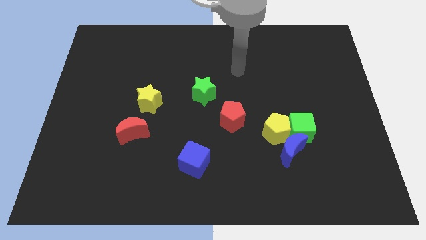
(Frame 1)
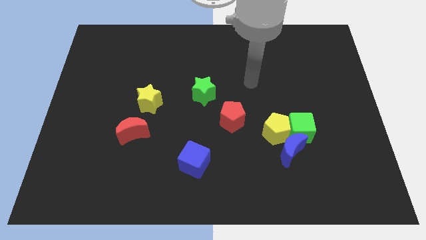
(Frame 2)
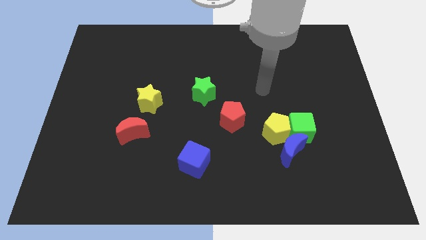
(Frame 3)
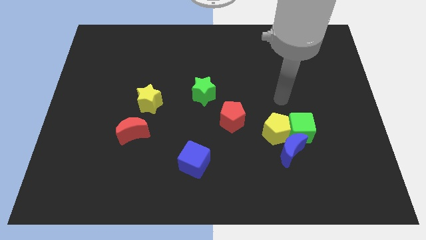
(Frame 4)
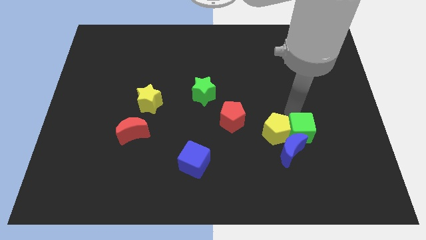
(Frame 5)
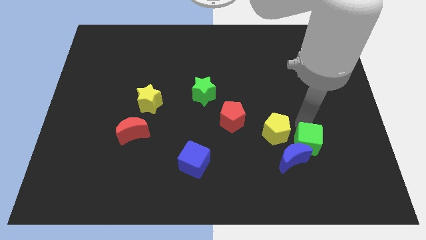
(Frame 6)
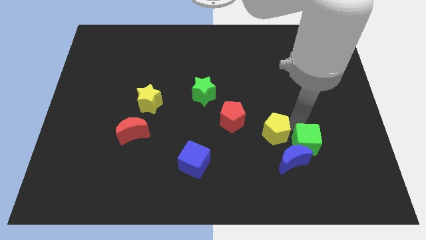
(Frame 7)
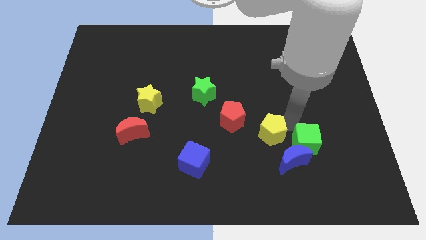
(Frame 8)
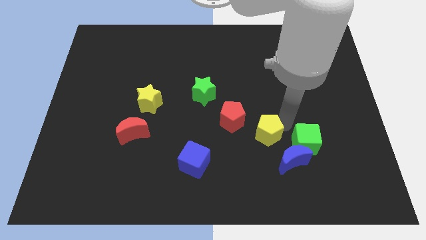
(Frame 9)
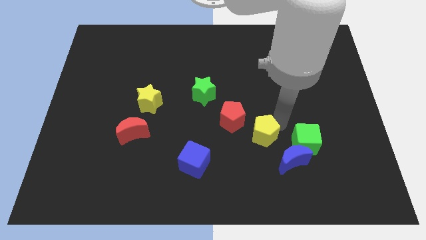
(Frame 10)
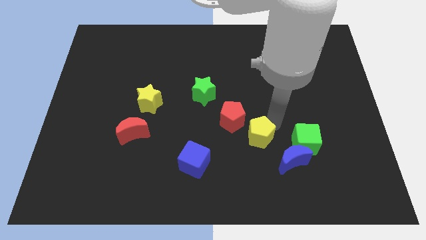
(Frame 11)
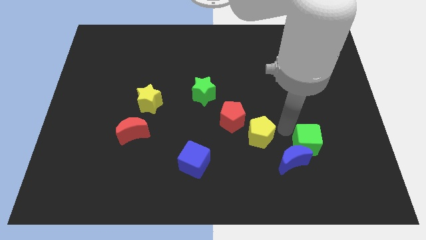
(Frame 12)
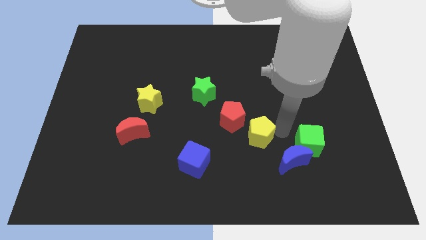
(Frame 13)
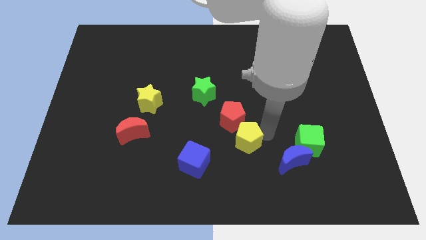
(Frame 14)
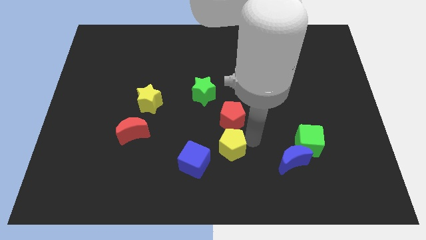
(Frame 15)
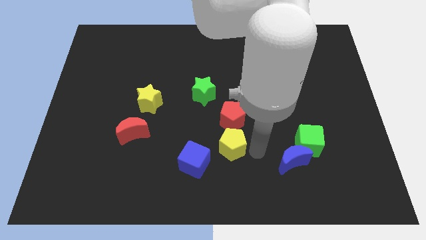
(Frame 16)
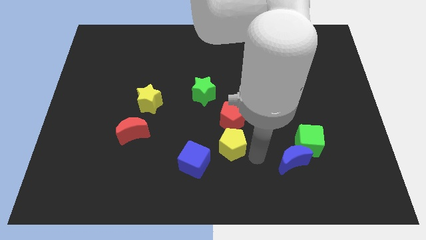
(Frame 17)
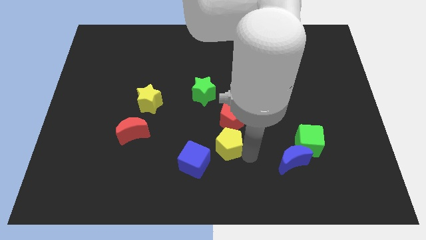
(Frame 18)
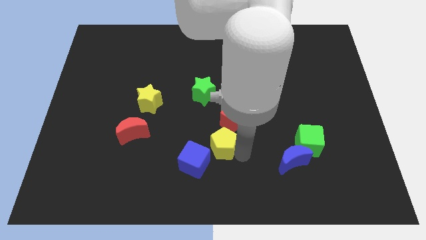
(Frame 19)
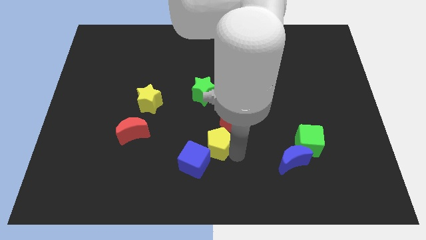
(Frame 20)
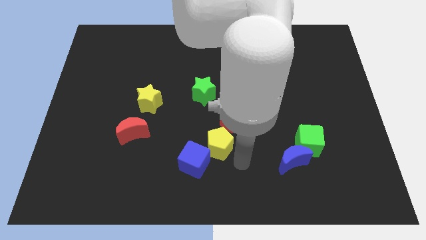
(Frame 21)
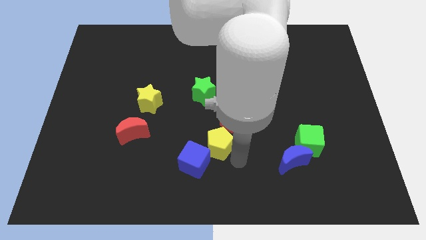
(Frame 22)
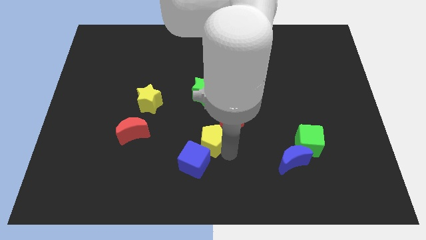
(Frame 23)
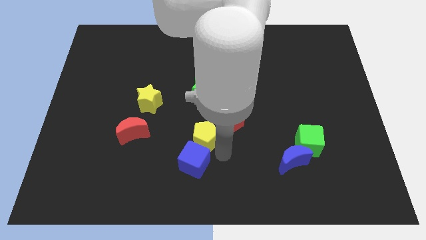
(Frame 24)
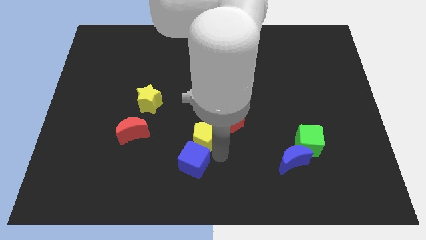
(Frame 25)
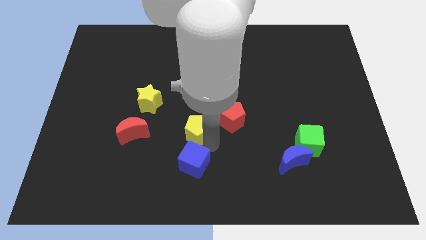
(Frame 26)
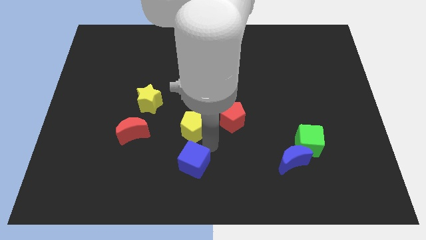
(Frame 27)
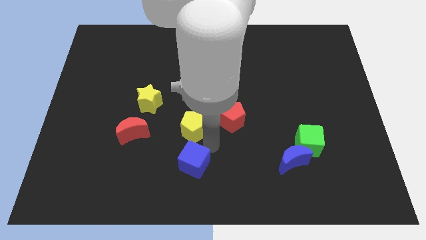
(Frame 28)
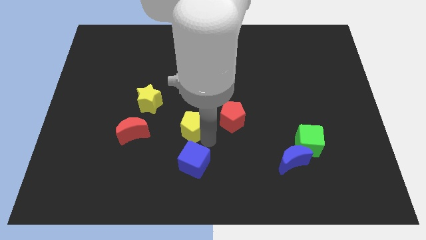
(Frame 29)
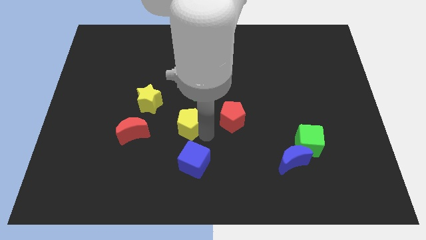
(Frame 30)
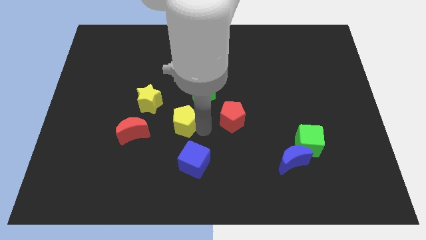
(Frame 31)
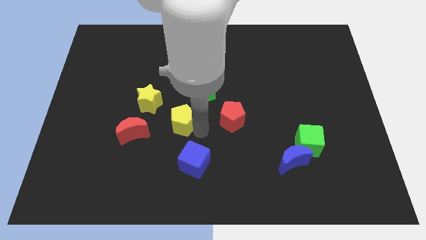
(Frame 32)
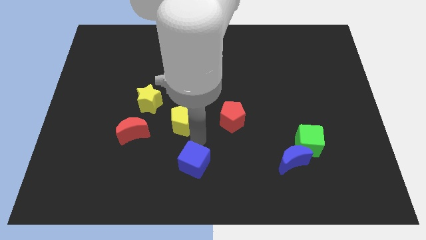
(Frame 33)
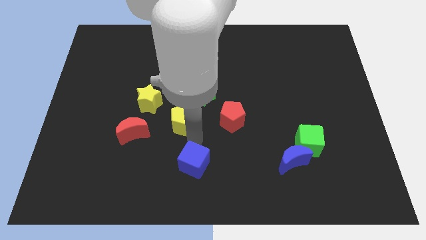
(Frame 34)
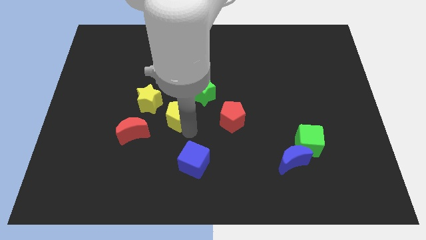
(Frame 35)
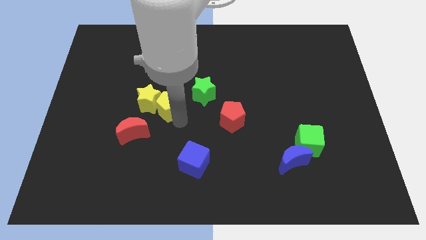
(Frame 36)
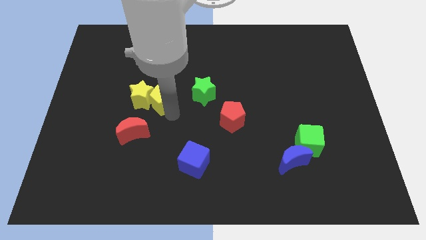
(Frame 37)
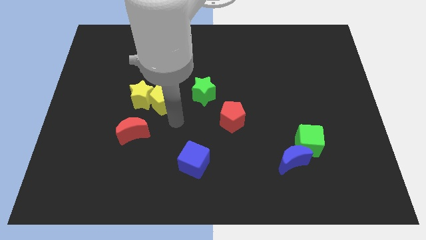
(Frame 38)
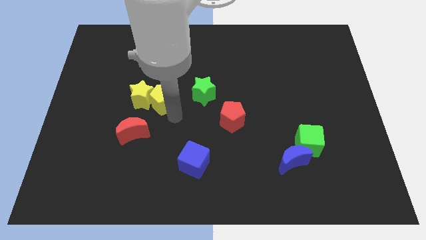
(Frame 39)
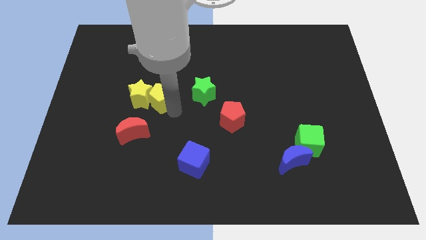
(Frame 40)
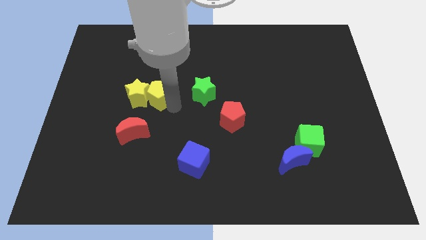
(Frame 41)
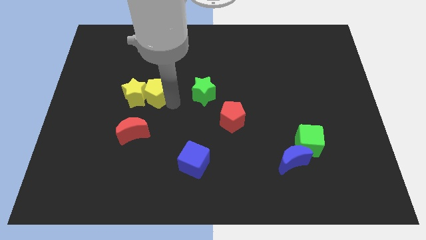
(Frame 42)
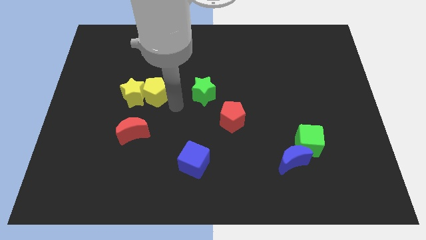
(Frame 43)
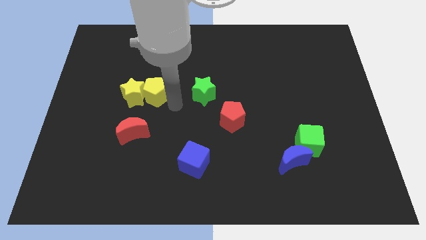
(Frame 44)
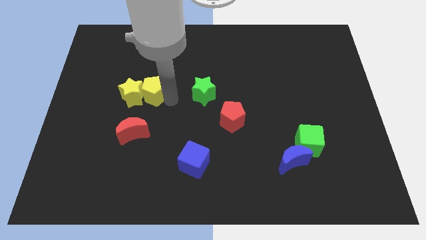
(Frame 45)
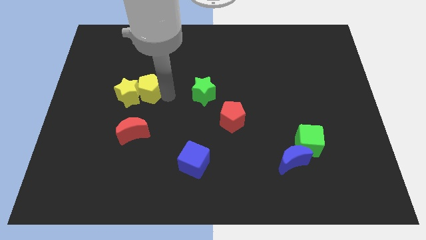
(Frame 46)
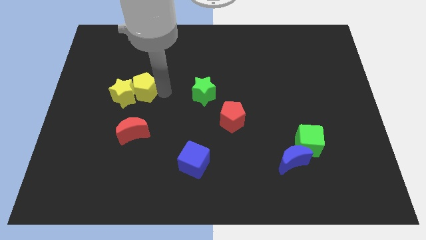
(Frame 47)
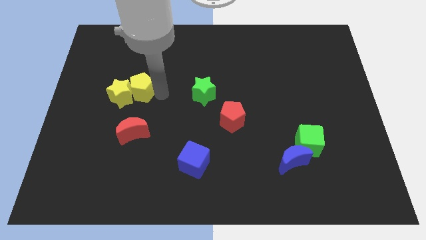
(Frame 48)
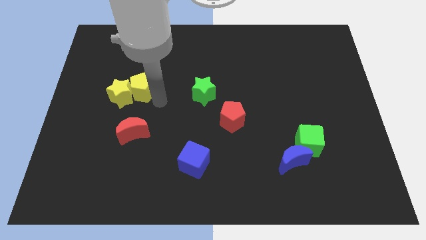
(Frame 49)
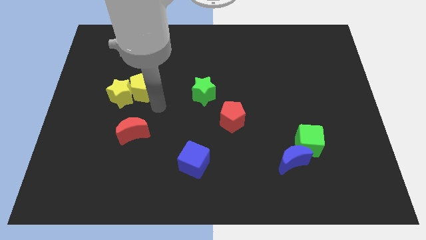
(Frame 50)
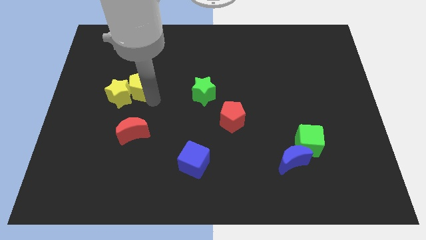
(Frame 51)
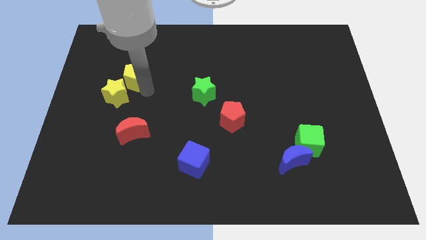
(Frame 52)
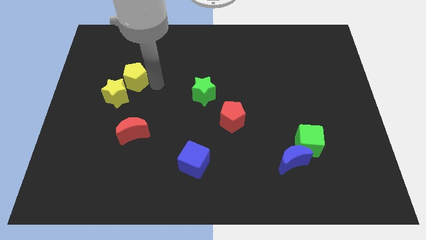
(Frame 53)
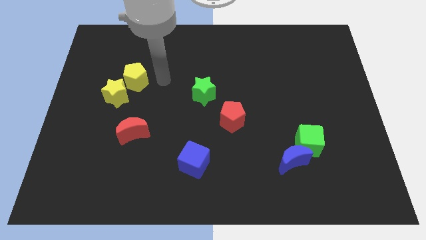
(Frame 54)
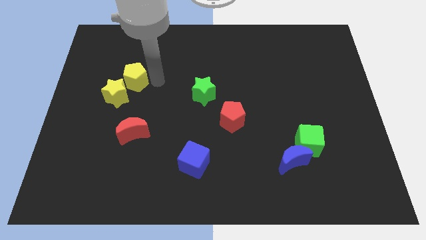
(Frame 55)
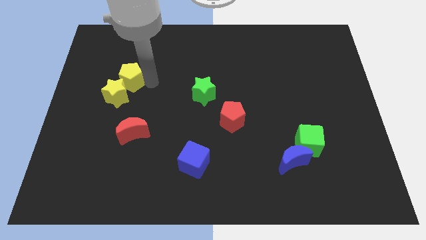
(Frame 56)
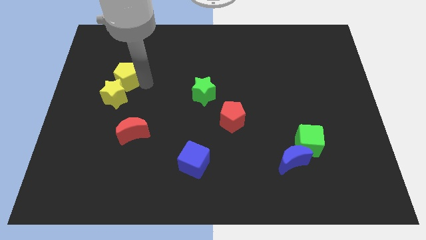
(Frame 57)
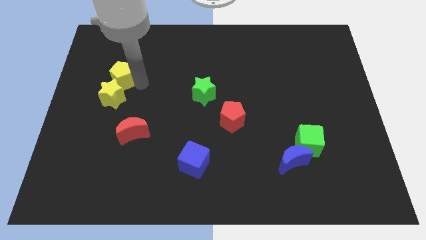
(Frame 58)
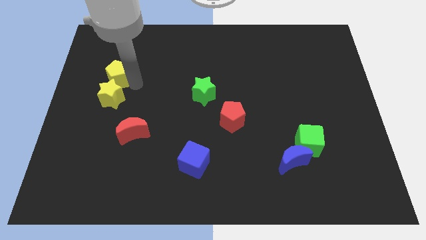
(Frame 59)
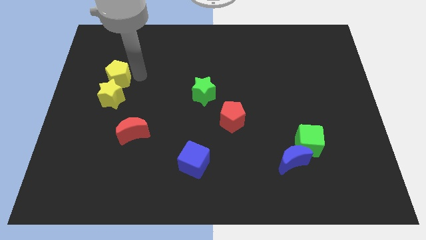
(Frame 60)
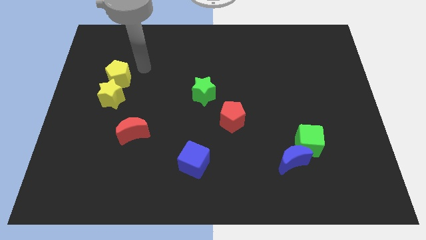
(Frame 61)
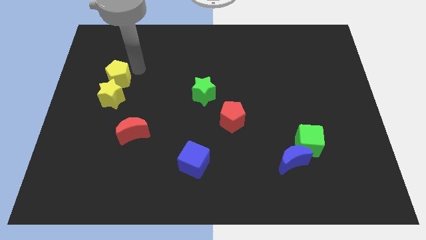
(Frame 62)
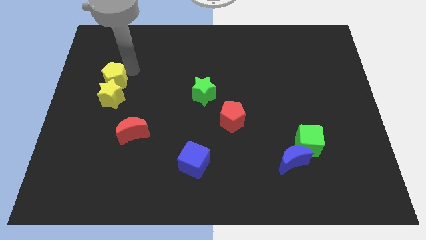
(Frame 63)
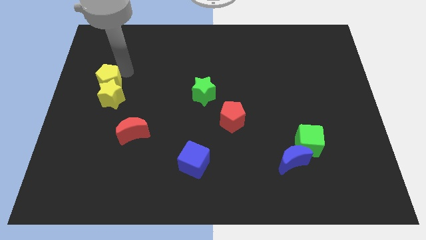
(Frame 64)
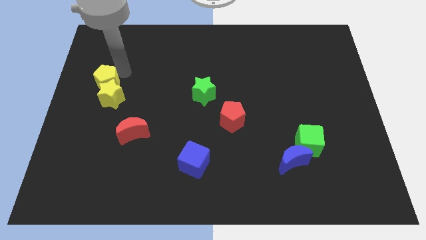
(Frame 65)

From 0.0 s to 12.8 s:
put the yellow pentagon to the left side of the board
